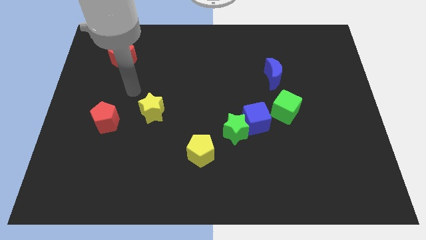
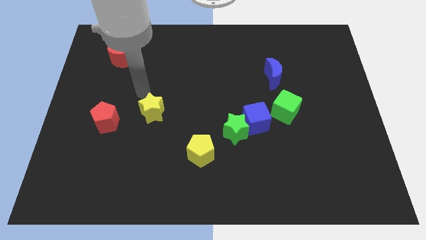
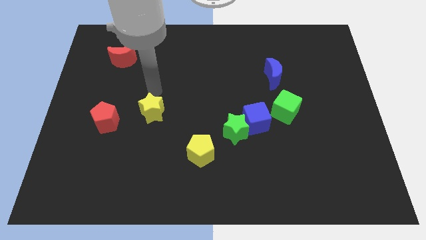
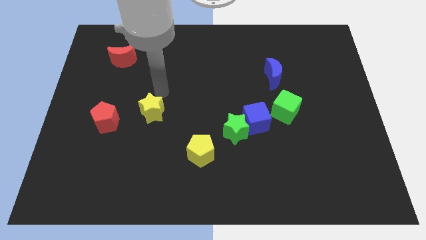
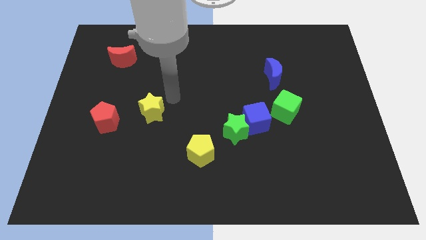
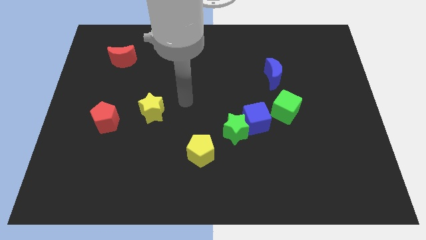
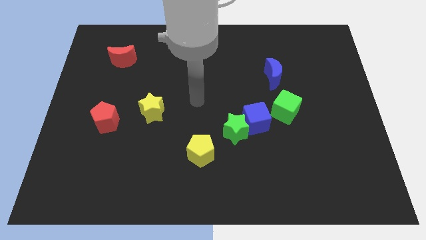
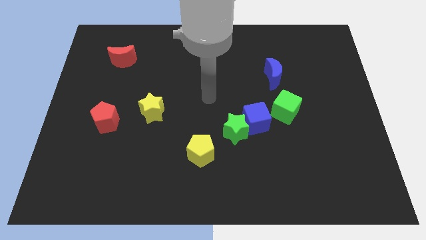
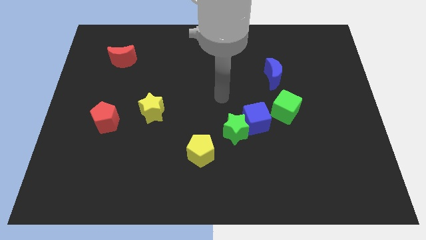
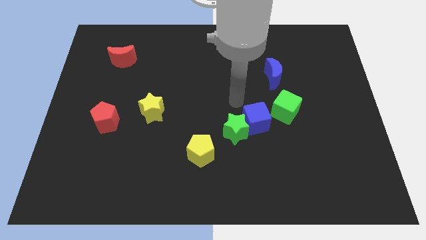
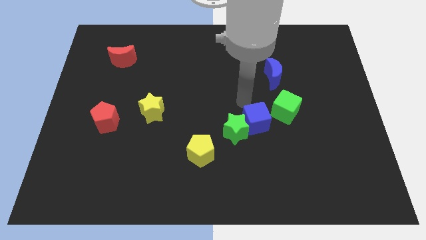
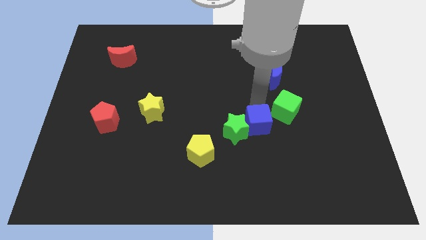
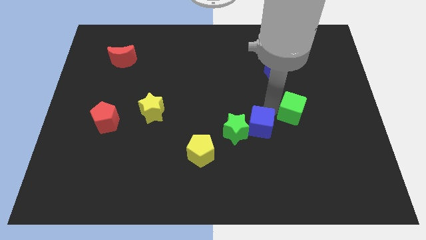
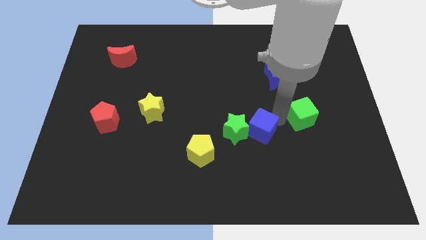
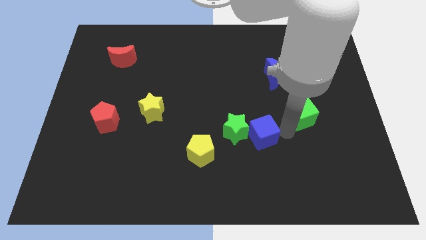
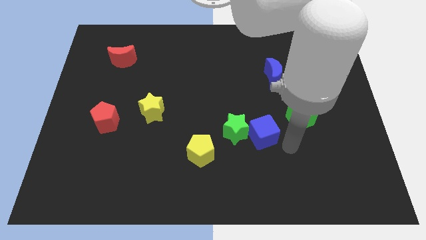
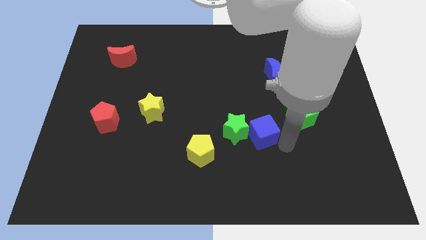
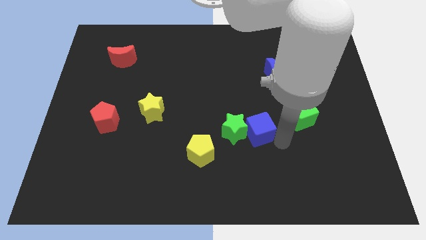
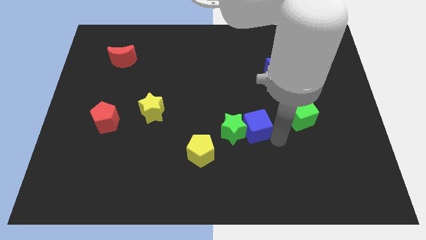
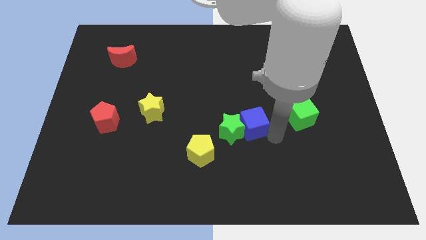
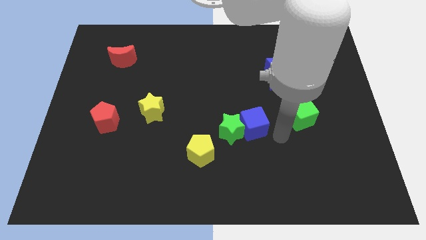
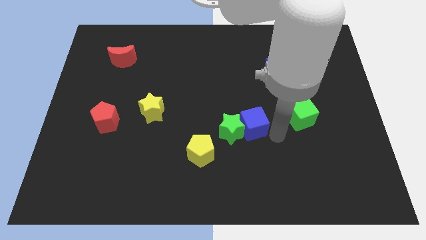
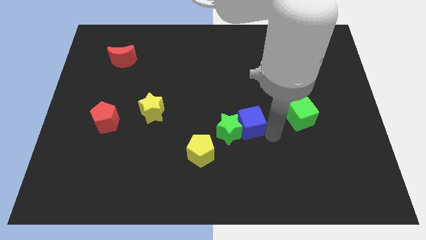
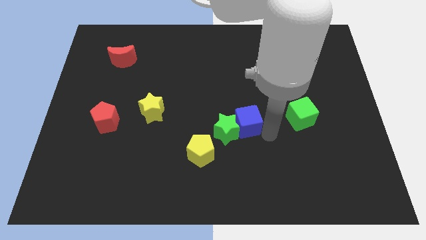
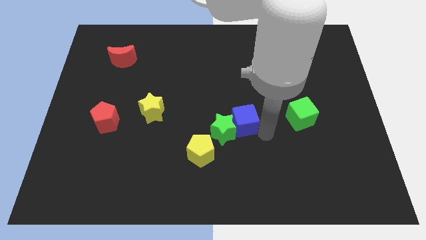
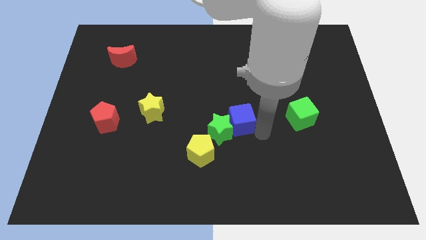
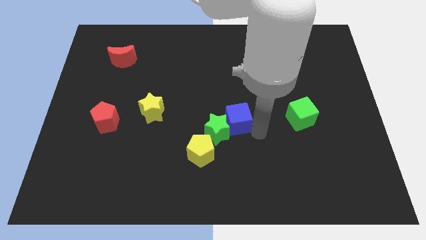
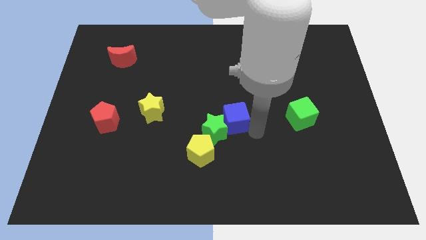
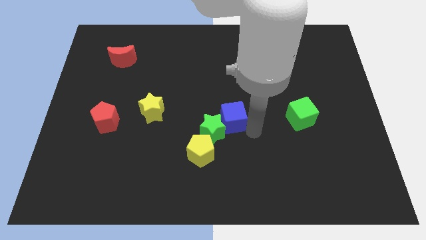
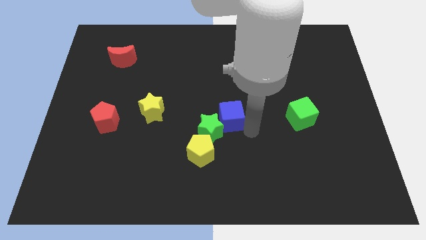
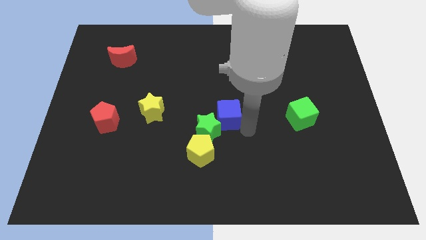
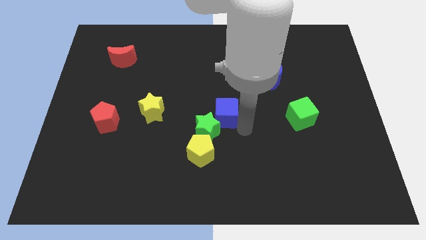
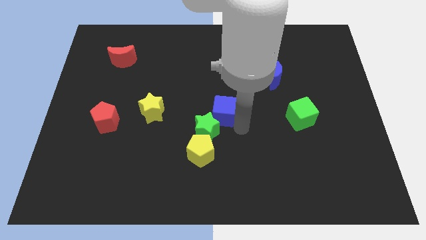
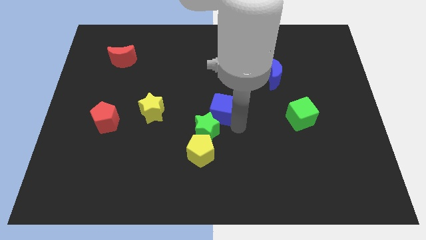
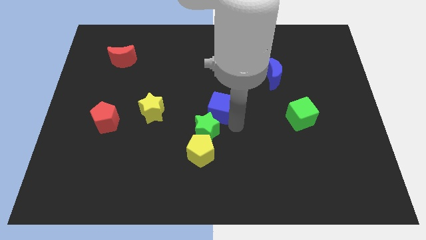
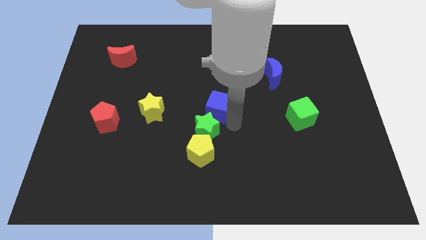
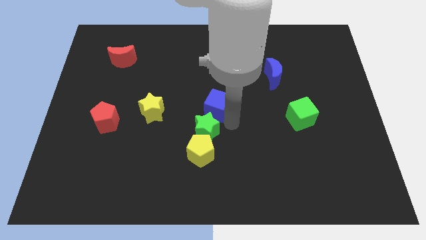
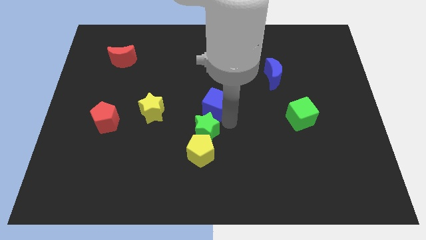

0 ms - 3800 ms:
move the blue cube away from the green star and green cube

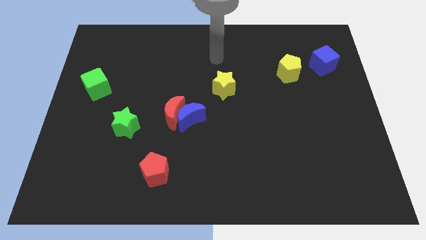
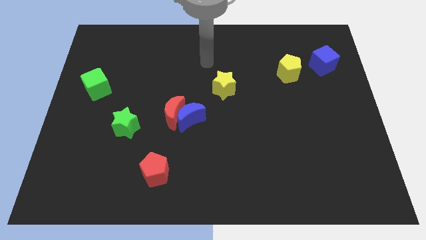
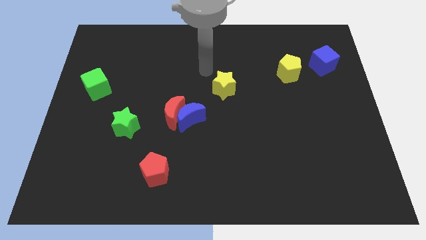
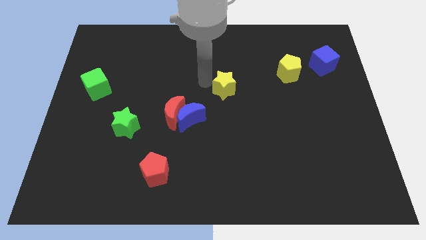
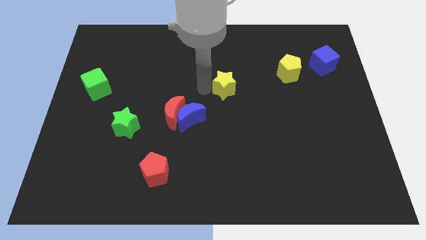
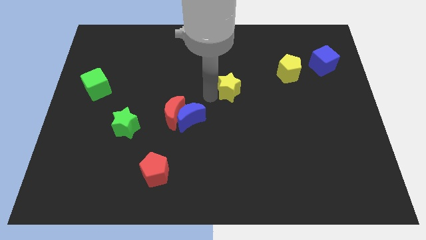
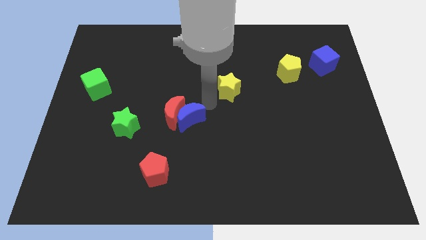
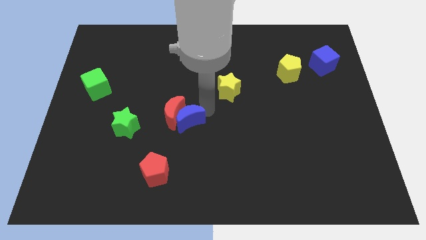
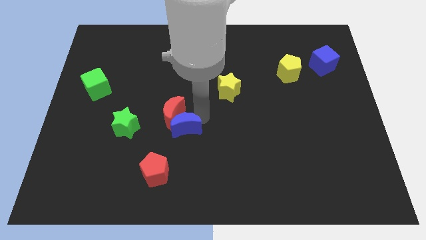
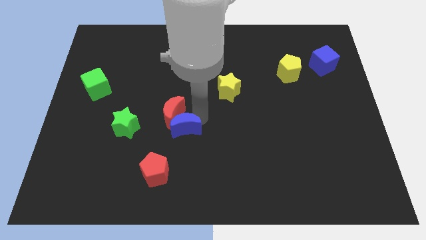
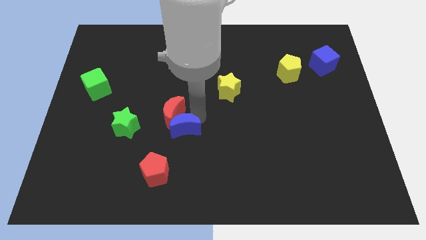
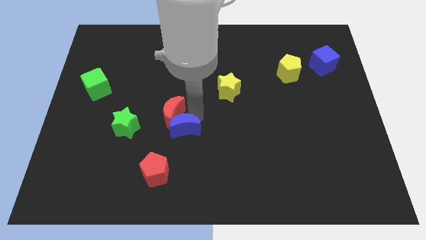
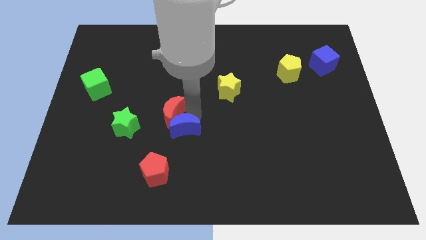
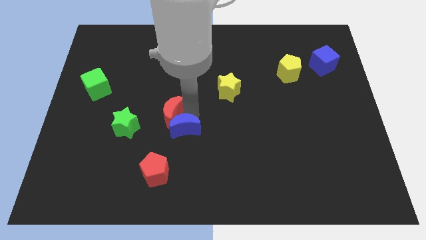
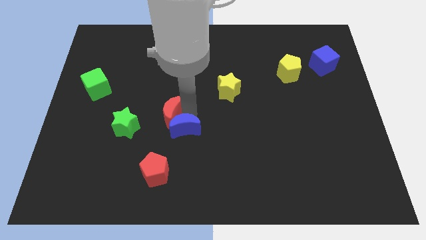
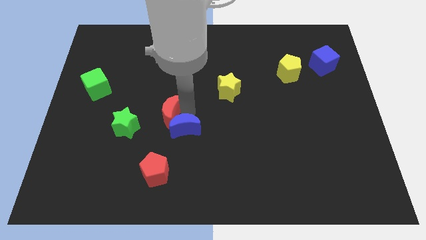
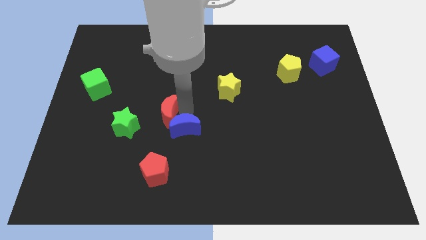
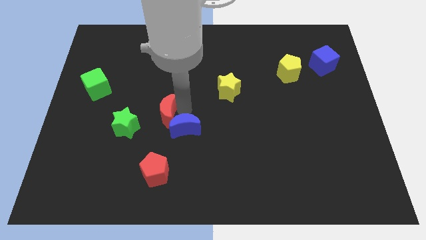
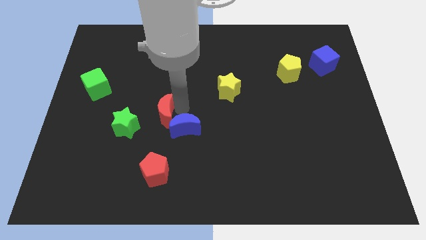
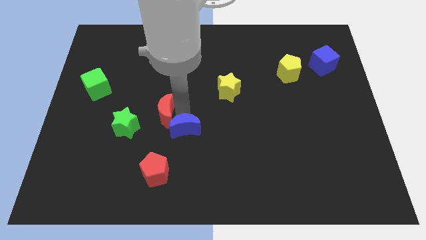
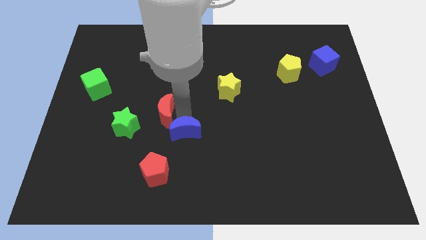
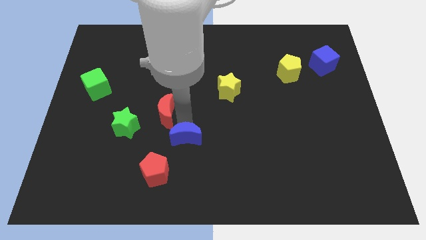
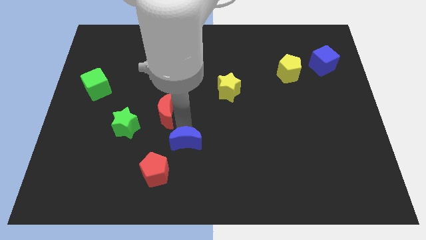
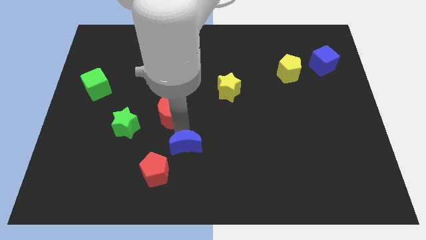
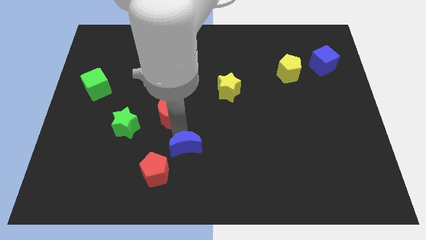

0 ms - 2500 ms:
move the red moon away from the blue moon

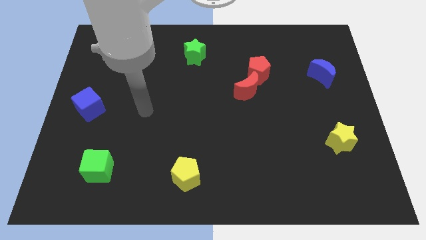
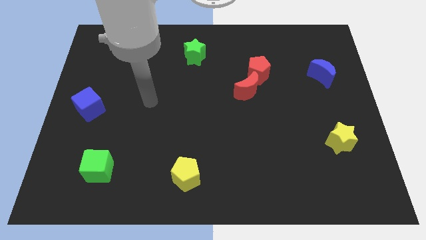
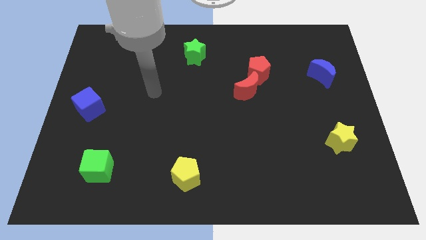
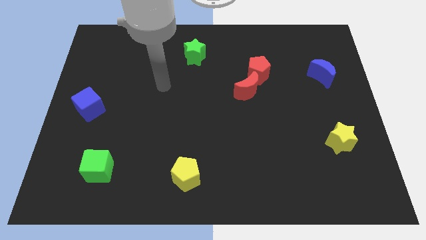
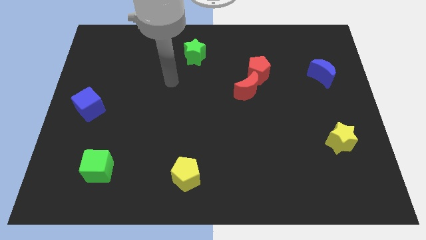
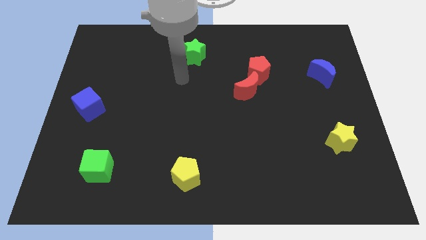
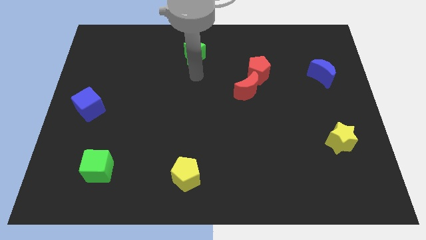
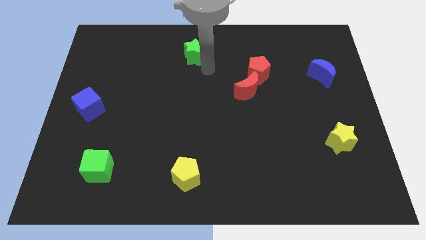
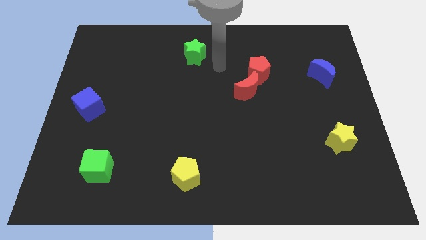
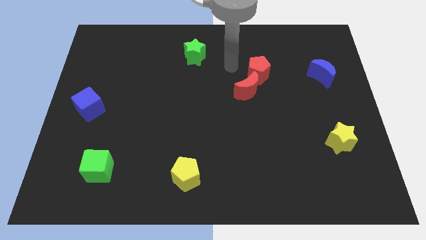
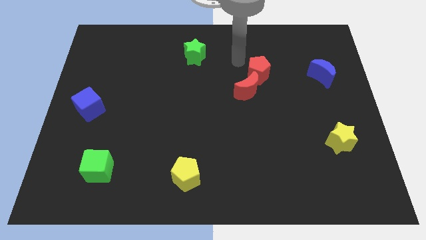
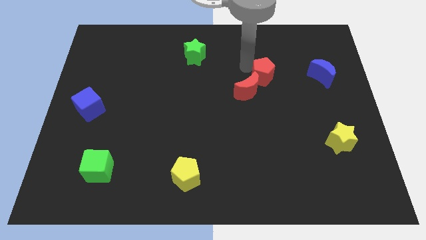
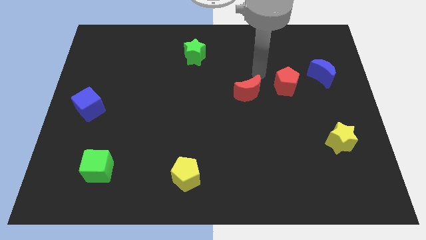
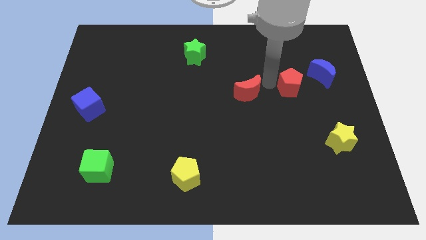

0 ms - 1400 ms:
pull the red moon apart from the red pentagon

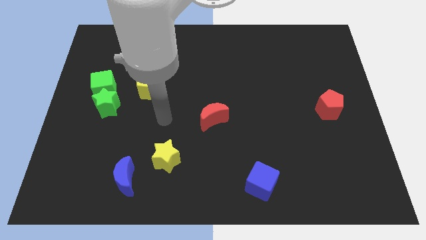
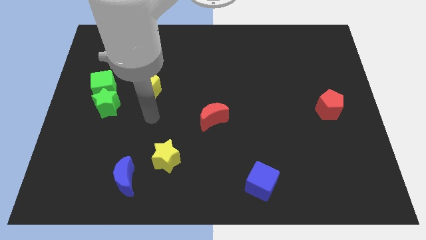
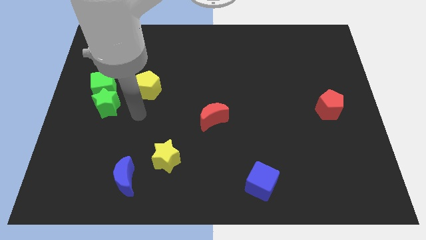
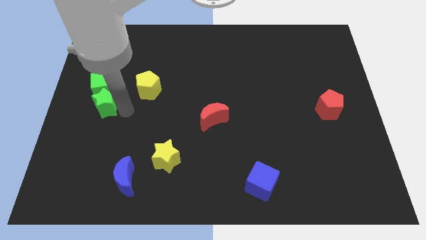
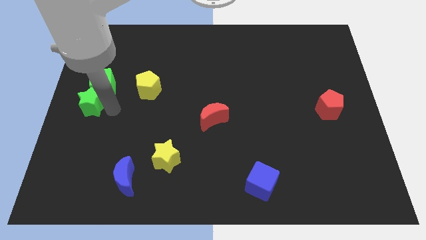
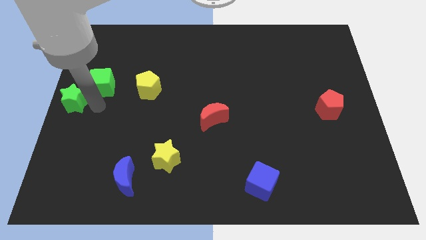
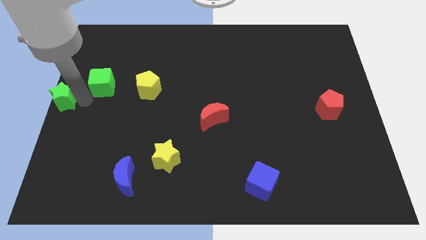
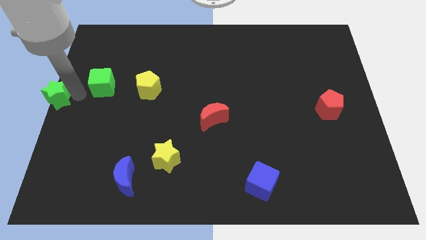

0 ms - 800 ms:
pull the green cube apart from the green star

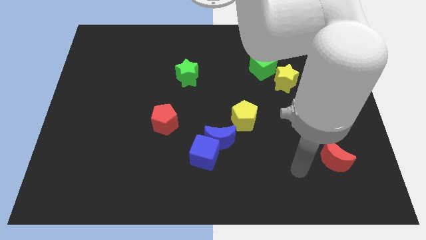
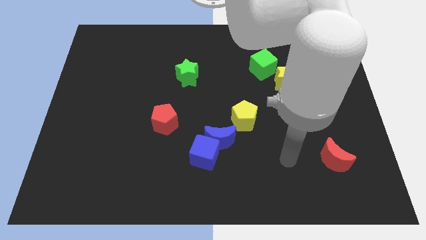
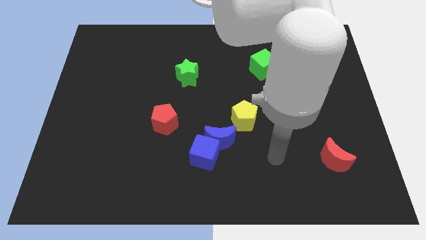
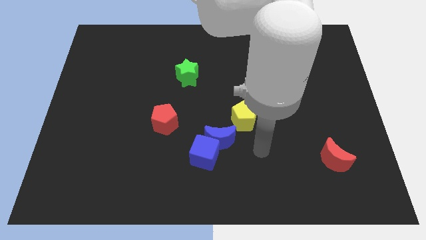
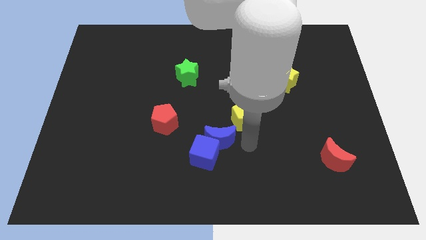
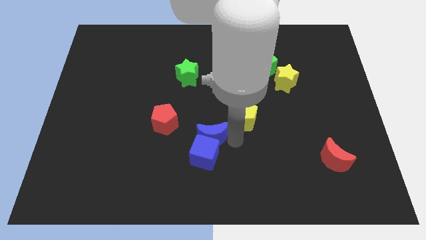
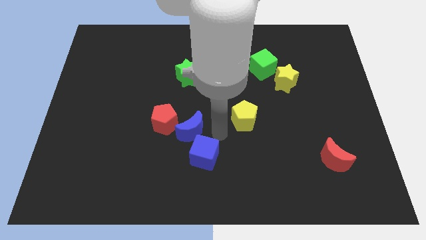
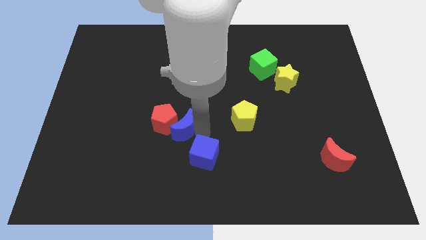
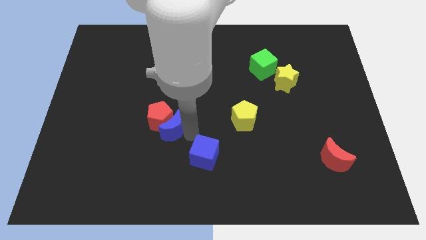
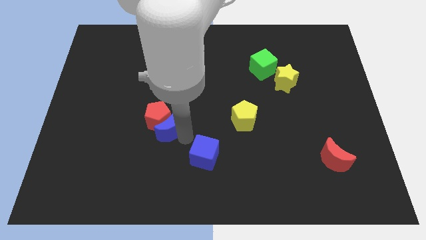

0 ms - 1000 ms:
move the blue cube away from the blue moon
